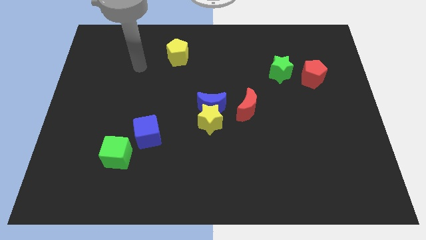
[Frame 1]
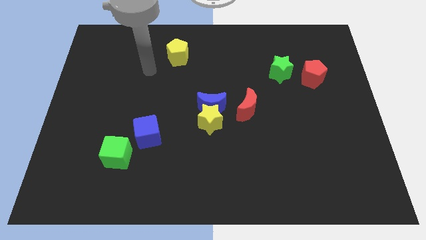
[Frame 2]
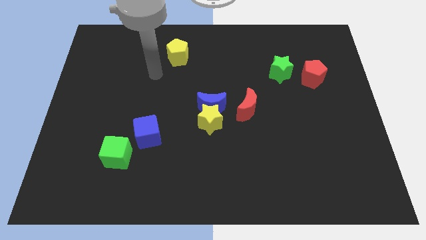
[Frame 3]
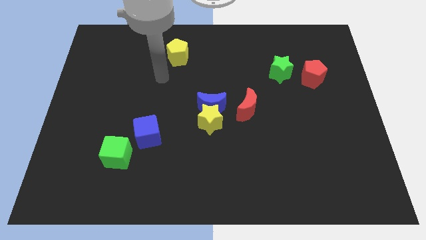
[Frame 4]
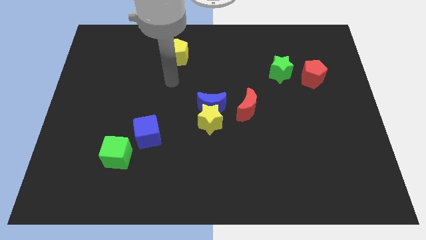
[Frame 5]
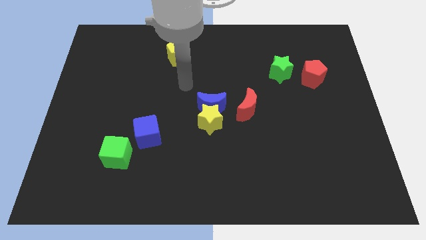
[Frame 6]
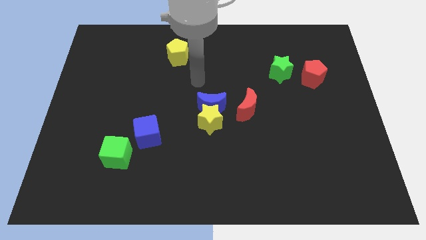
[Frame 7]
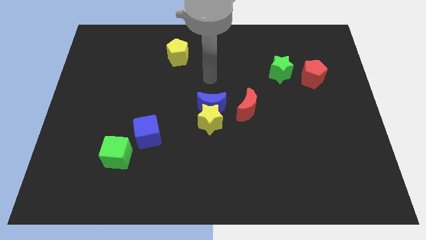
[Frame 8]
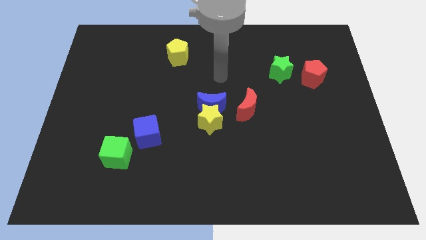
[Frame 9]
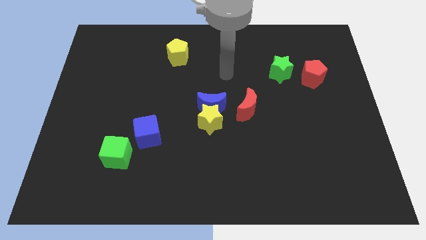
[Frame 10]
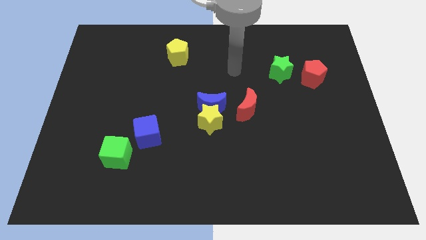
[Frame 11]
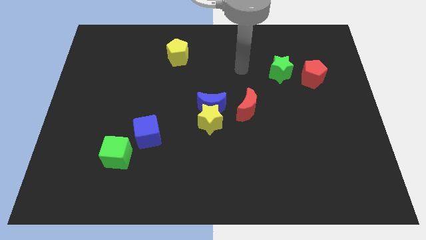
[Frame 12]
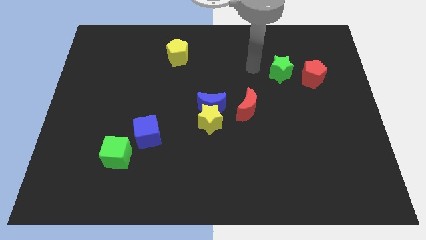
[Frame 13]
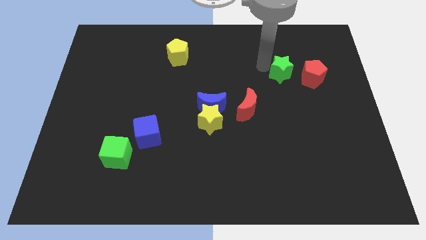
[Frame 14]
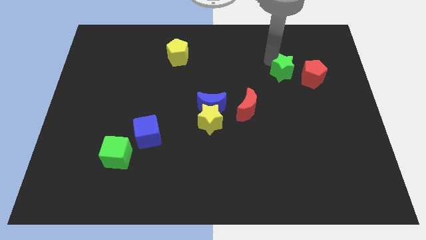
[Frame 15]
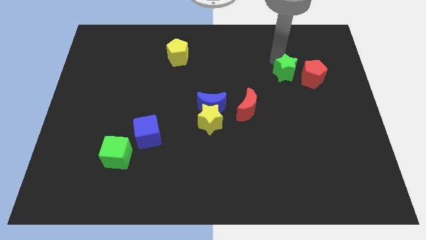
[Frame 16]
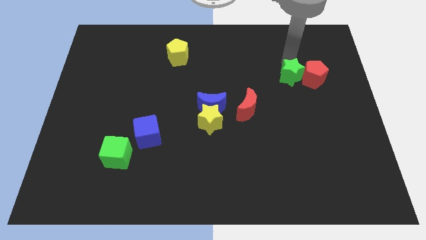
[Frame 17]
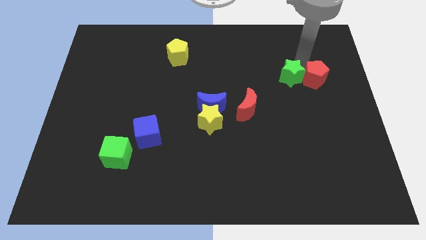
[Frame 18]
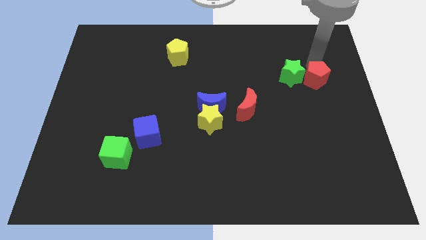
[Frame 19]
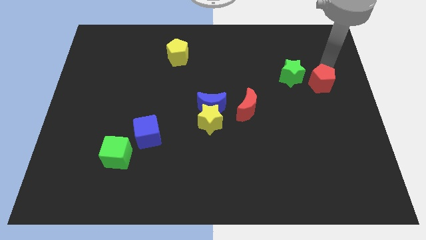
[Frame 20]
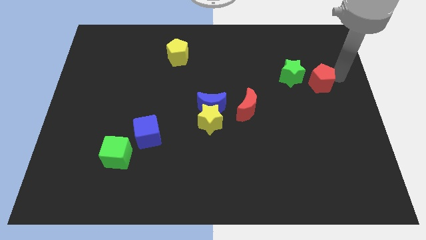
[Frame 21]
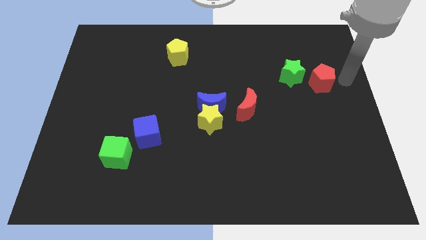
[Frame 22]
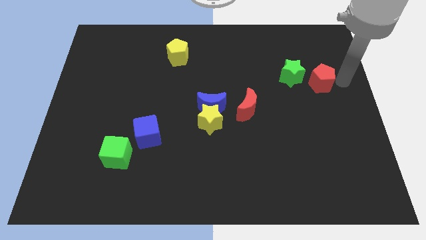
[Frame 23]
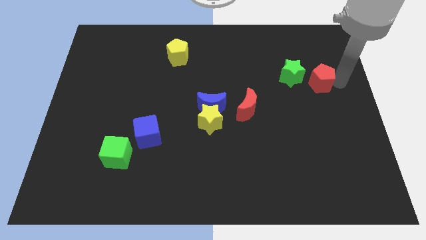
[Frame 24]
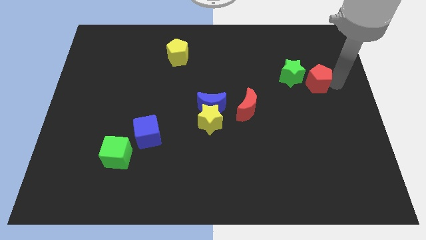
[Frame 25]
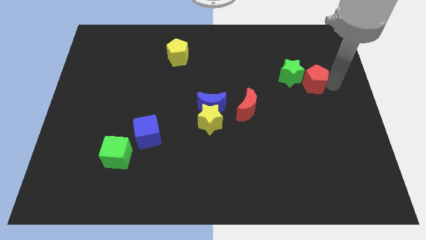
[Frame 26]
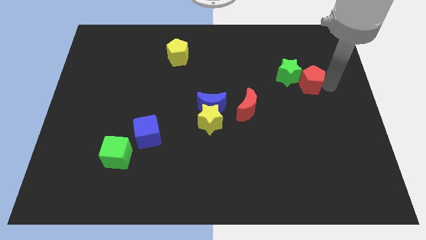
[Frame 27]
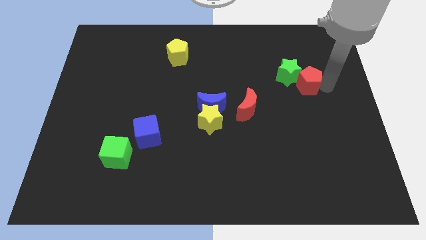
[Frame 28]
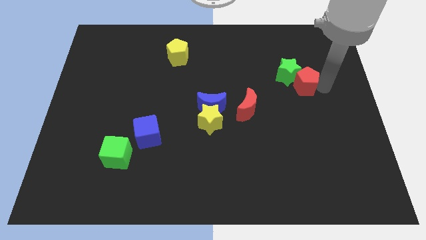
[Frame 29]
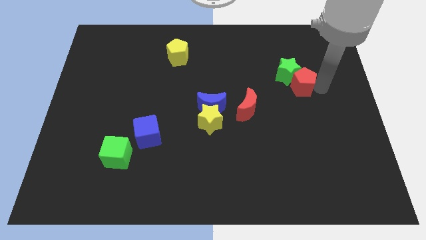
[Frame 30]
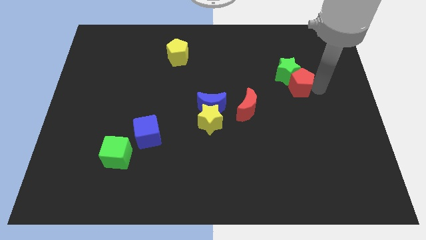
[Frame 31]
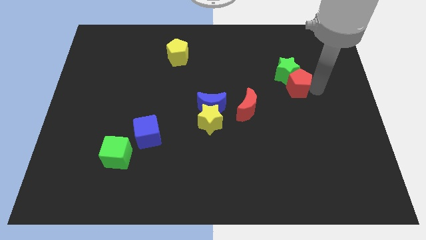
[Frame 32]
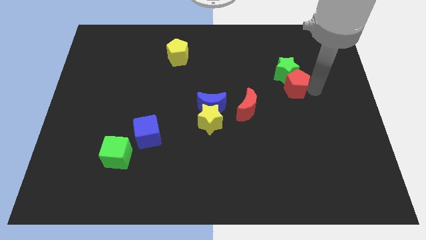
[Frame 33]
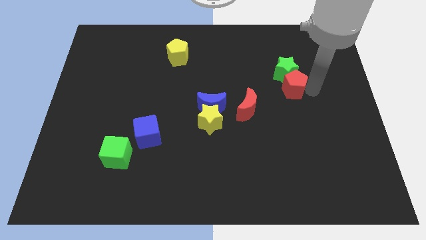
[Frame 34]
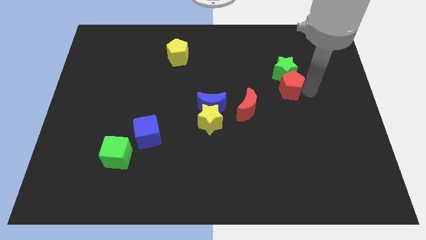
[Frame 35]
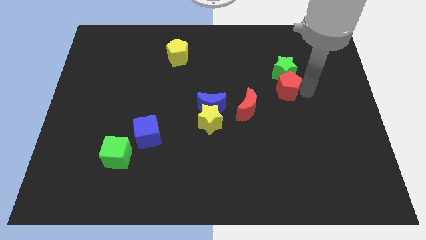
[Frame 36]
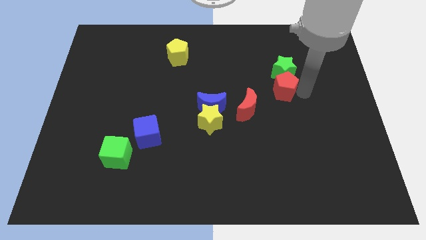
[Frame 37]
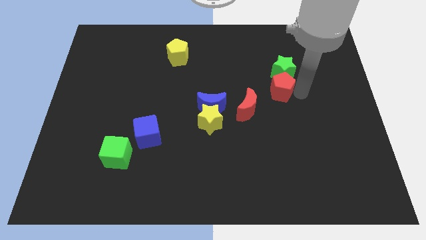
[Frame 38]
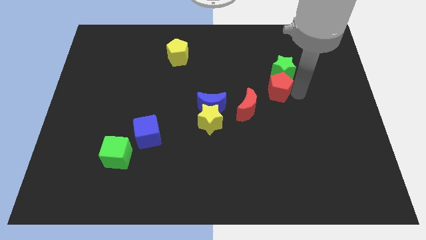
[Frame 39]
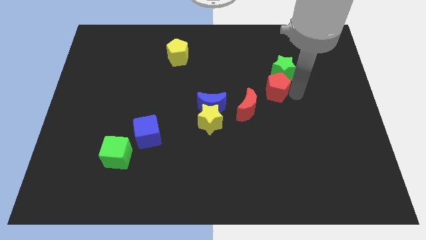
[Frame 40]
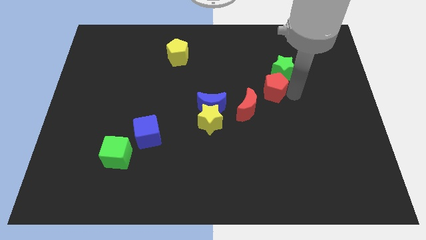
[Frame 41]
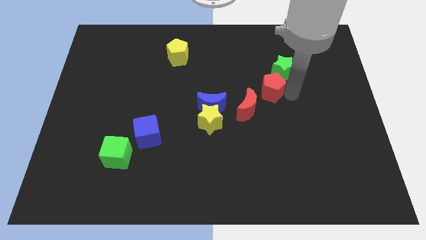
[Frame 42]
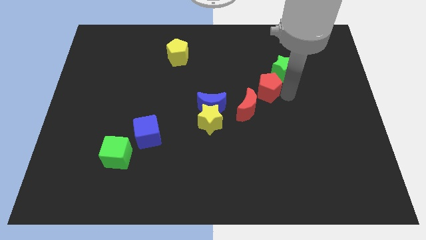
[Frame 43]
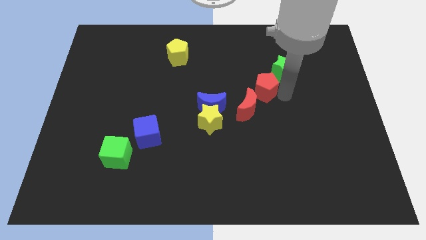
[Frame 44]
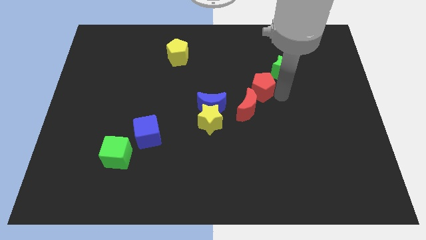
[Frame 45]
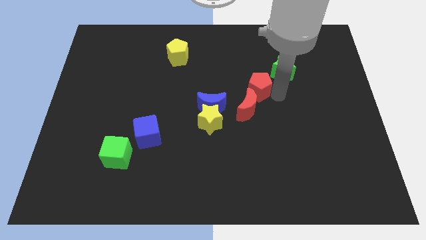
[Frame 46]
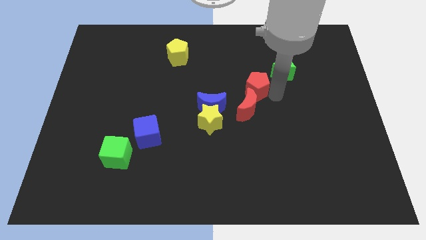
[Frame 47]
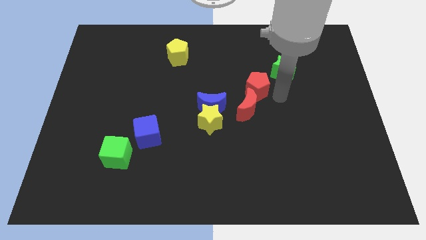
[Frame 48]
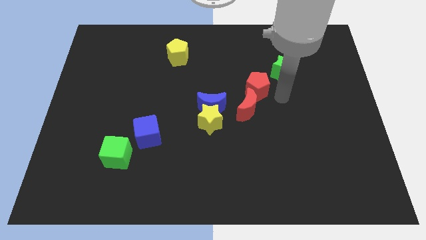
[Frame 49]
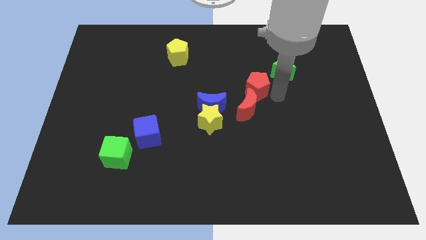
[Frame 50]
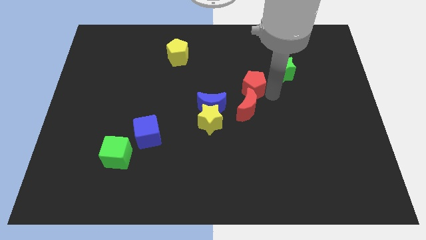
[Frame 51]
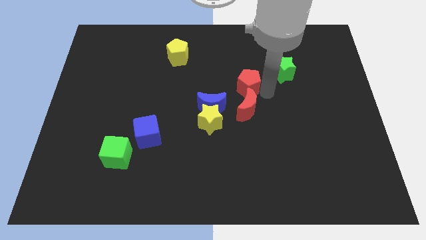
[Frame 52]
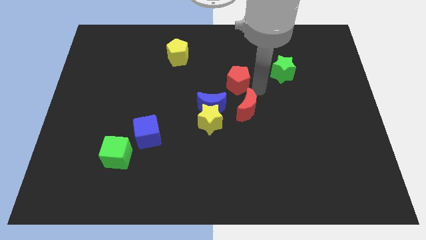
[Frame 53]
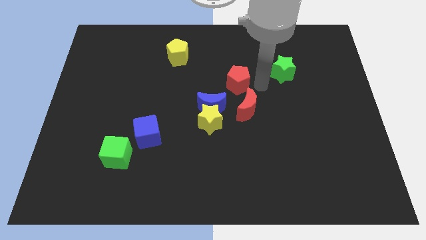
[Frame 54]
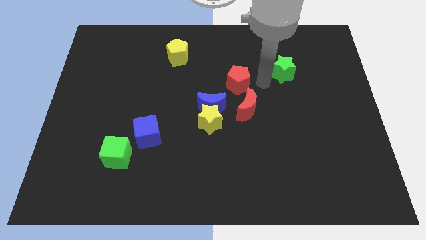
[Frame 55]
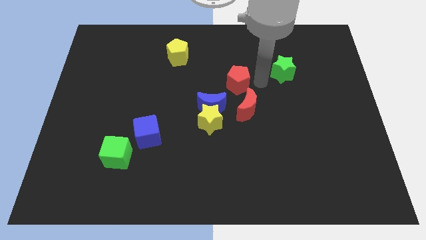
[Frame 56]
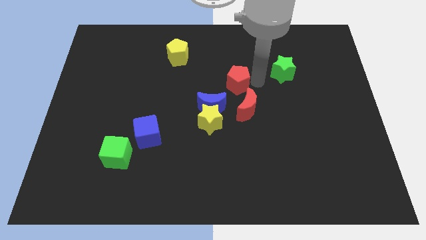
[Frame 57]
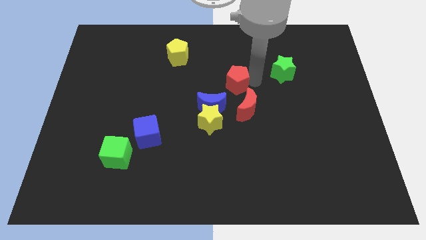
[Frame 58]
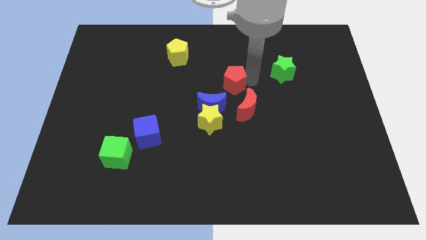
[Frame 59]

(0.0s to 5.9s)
slide the red pentagon left

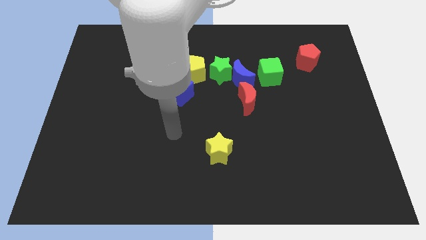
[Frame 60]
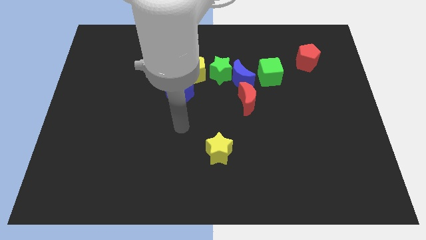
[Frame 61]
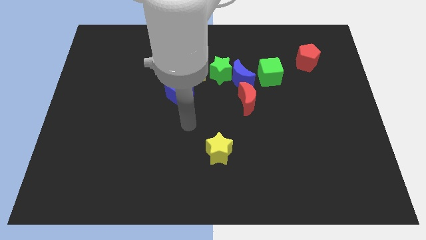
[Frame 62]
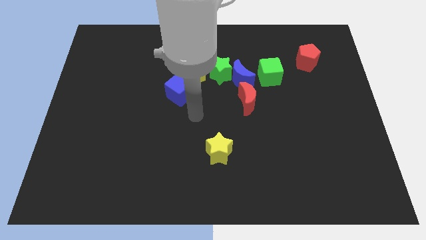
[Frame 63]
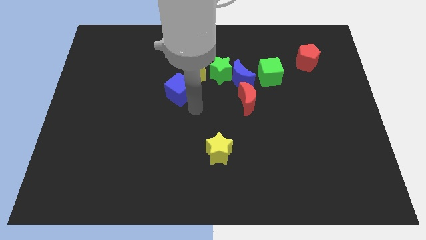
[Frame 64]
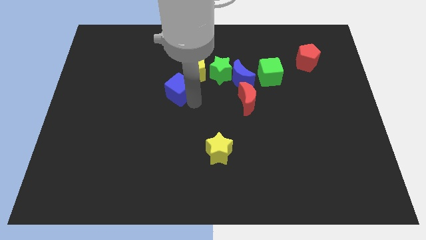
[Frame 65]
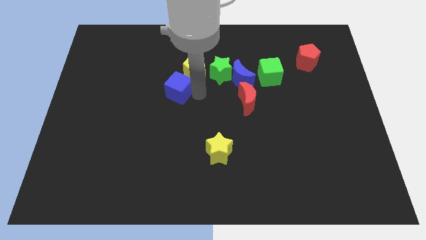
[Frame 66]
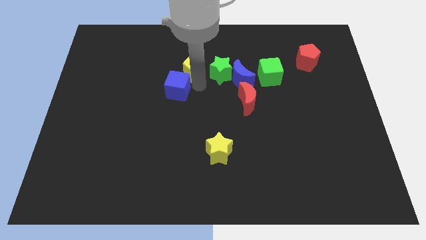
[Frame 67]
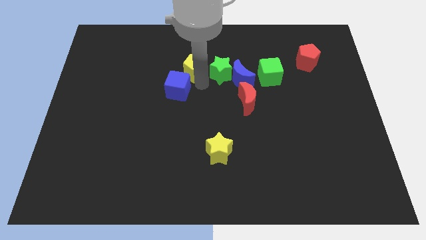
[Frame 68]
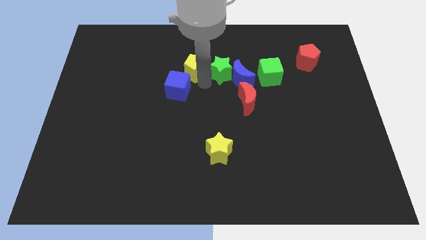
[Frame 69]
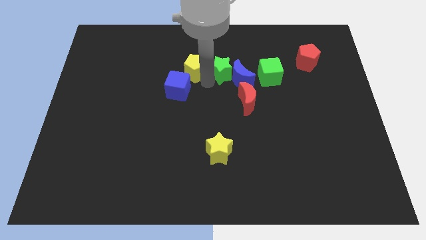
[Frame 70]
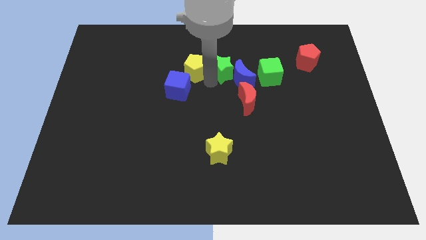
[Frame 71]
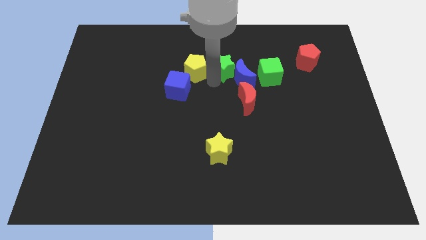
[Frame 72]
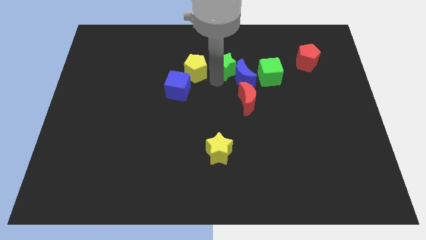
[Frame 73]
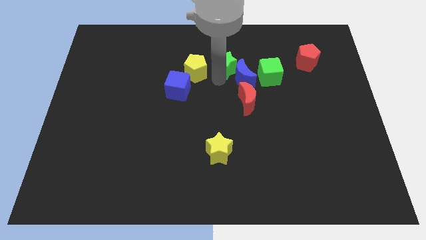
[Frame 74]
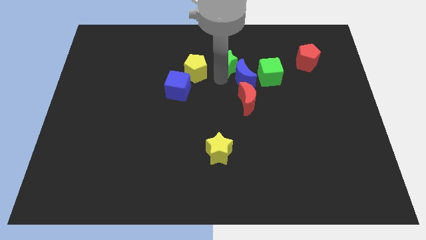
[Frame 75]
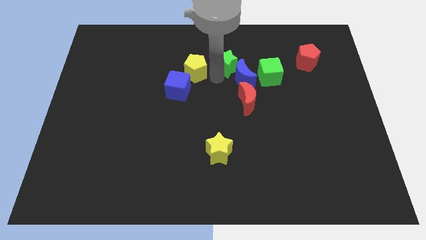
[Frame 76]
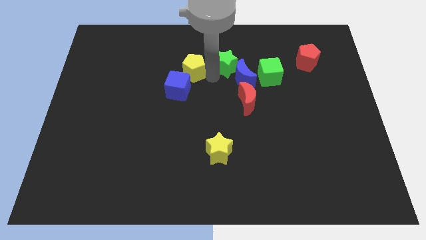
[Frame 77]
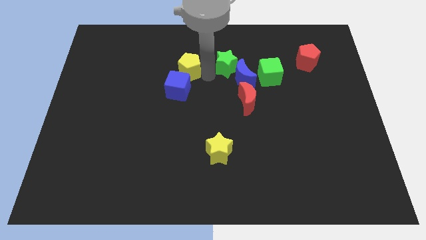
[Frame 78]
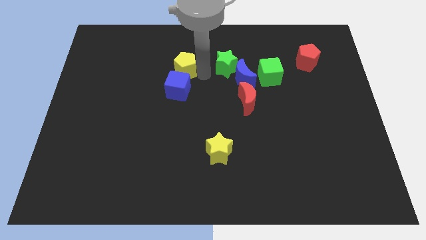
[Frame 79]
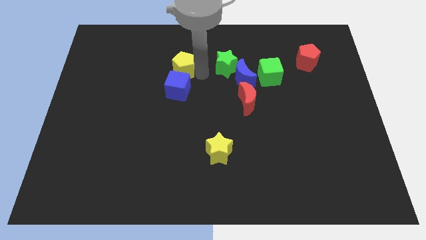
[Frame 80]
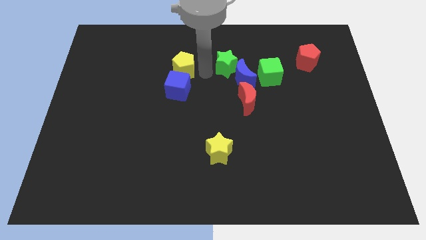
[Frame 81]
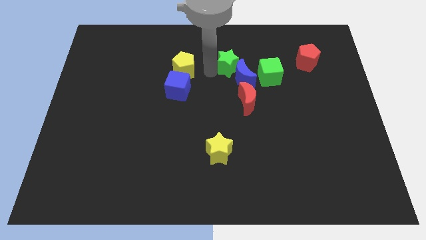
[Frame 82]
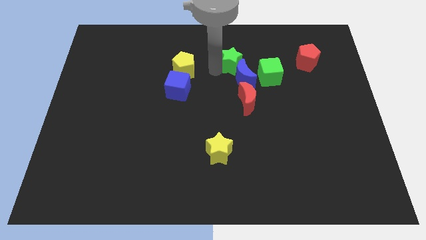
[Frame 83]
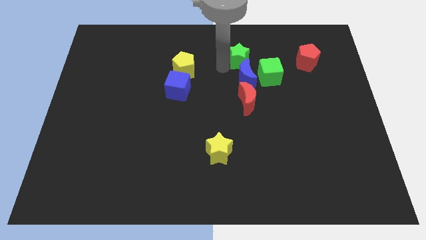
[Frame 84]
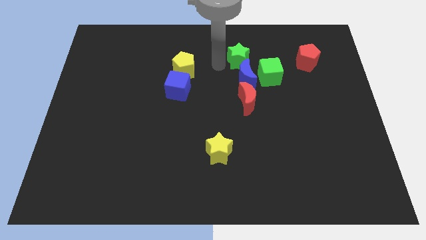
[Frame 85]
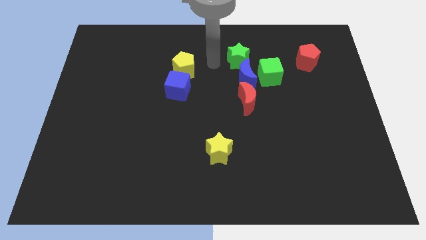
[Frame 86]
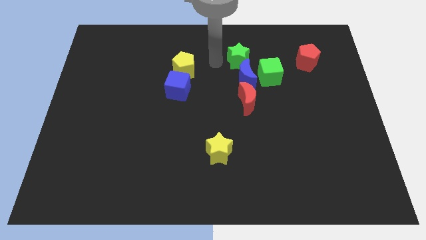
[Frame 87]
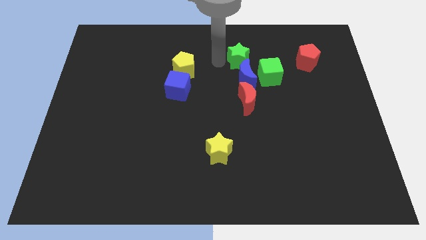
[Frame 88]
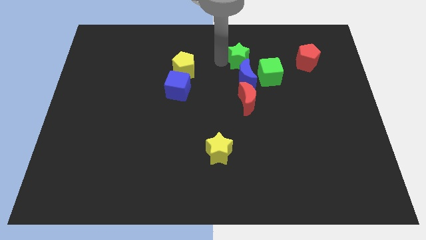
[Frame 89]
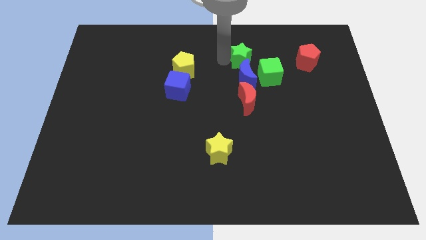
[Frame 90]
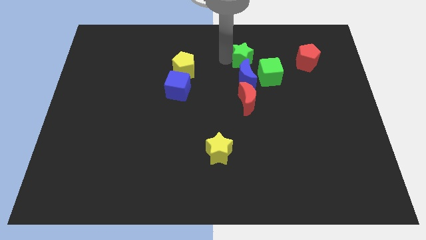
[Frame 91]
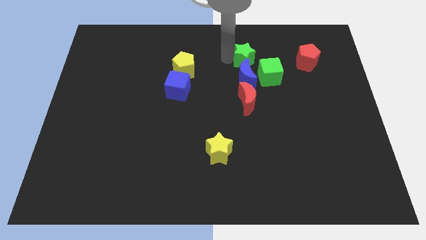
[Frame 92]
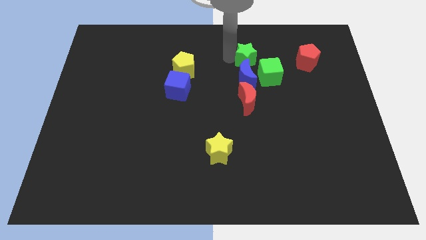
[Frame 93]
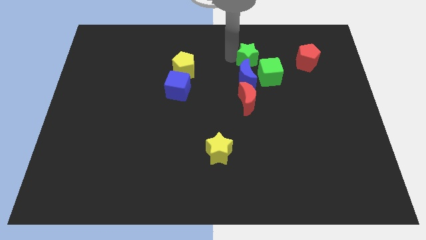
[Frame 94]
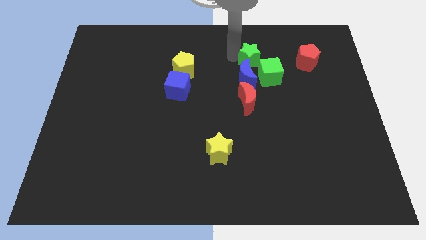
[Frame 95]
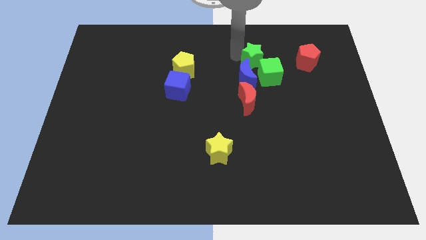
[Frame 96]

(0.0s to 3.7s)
move the green star right a little
